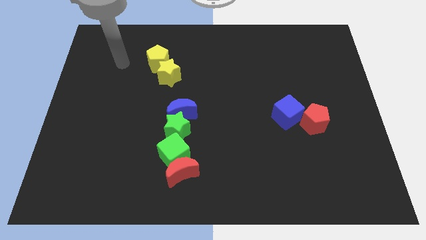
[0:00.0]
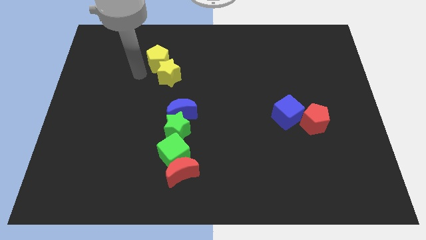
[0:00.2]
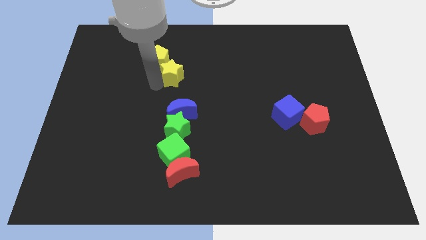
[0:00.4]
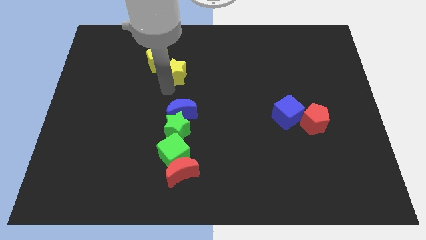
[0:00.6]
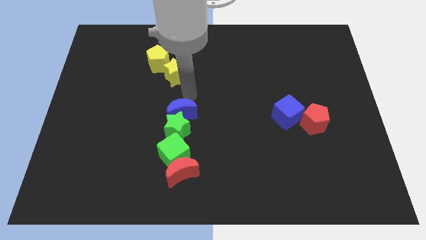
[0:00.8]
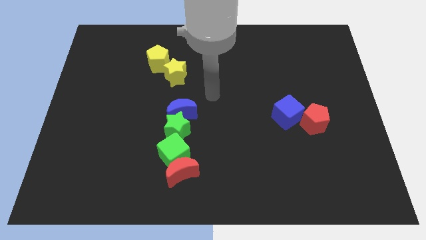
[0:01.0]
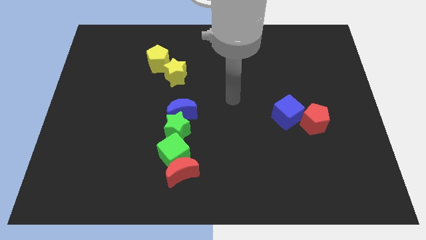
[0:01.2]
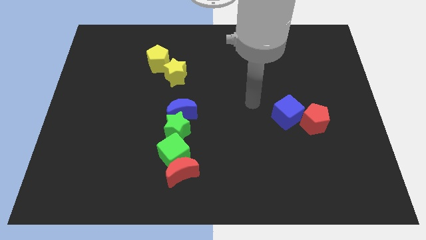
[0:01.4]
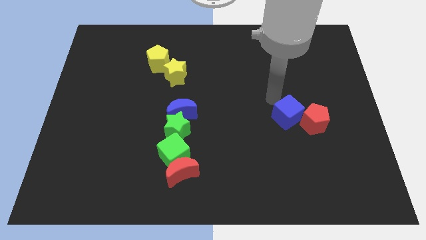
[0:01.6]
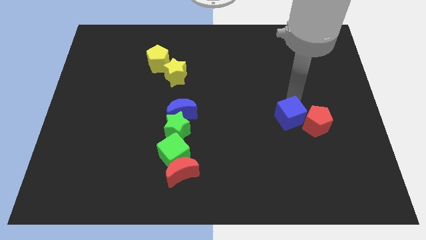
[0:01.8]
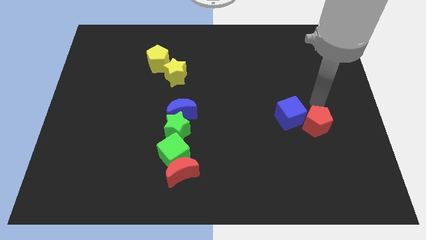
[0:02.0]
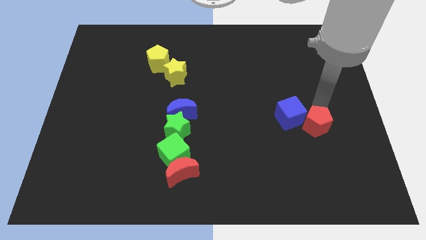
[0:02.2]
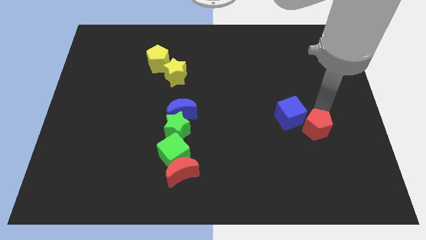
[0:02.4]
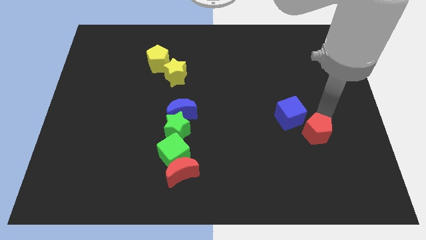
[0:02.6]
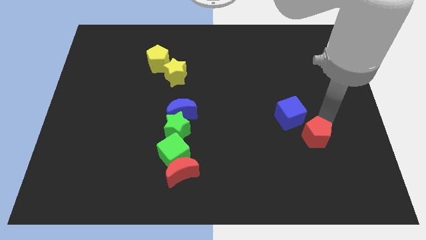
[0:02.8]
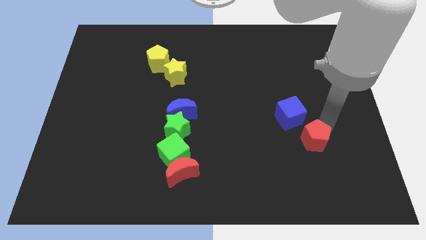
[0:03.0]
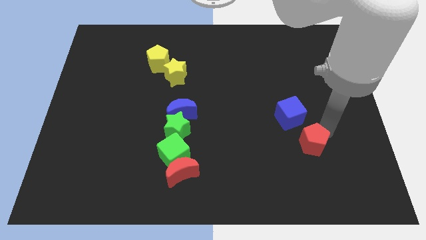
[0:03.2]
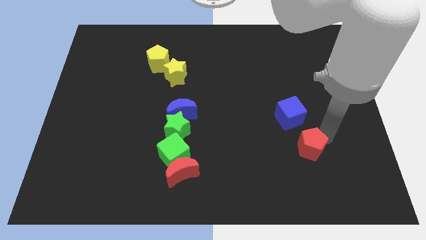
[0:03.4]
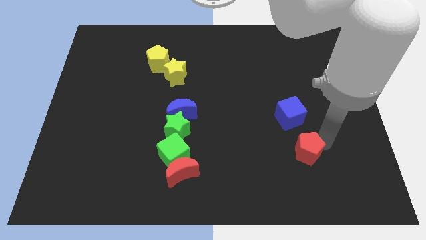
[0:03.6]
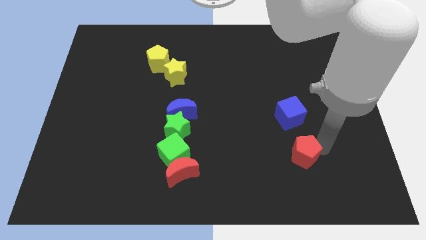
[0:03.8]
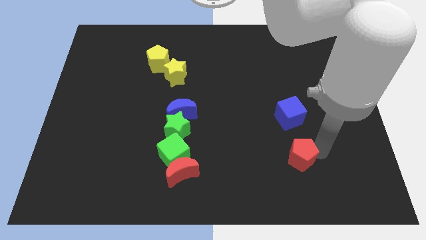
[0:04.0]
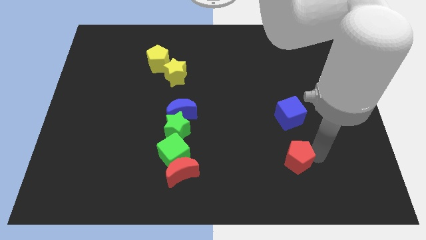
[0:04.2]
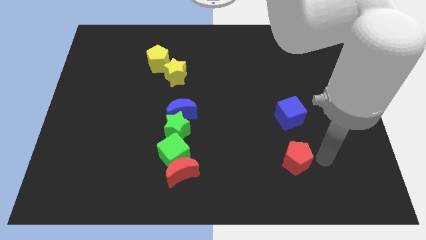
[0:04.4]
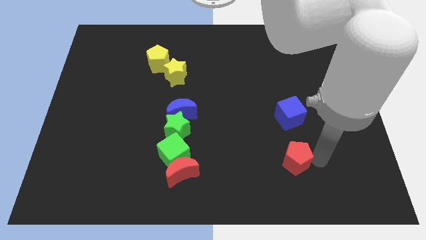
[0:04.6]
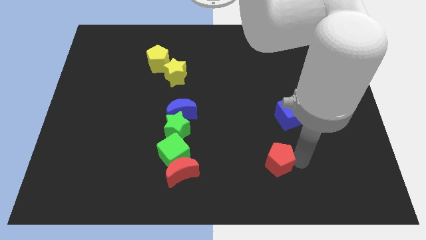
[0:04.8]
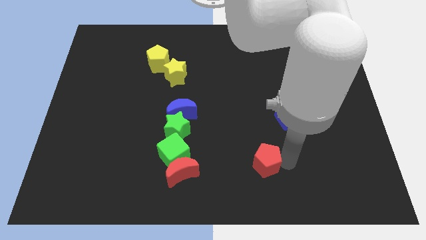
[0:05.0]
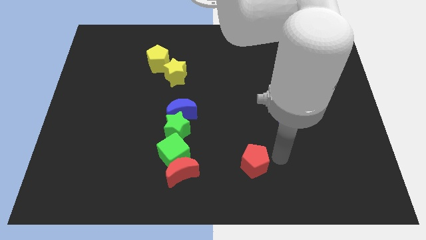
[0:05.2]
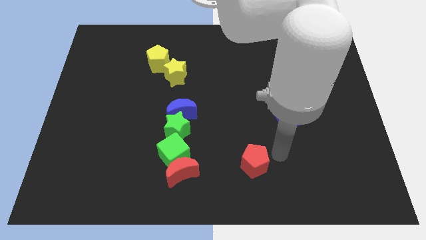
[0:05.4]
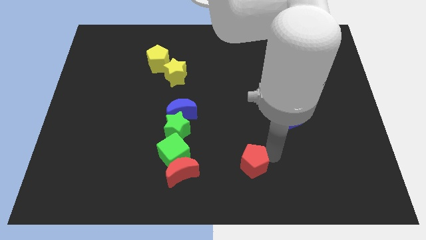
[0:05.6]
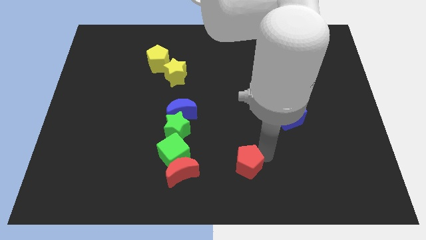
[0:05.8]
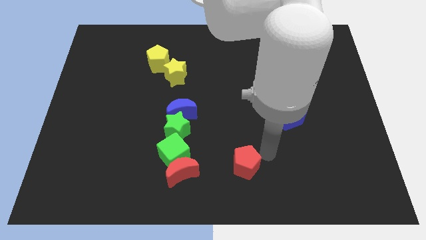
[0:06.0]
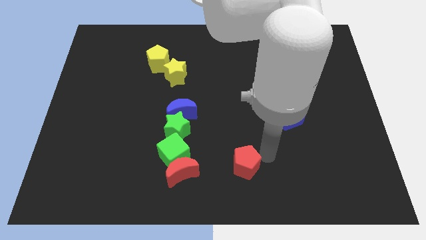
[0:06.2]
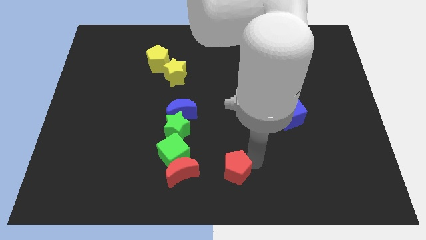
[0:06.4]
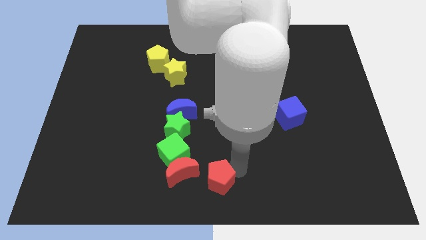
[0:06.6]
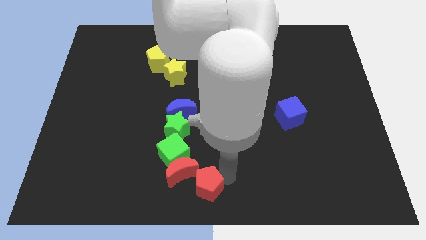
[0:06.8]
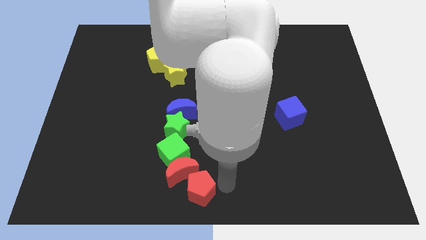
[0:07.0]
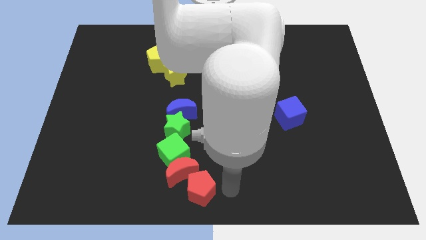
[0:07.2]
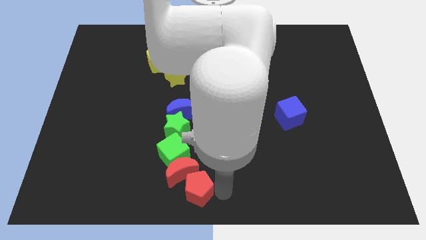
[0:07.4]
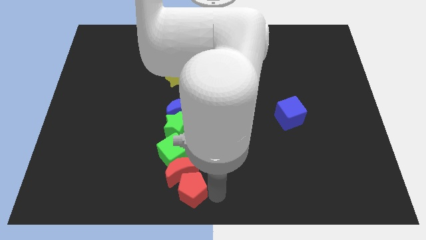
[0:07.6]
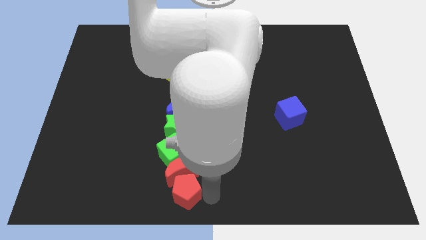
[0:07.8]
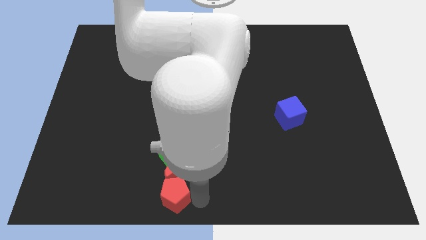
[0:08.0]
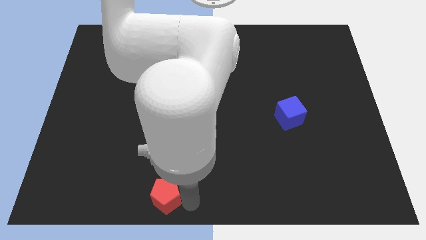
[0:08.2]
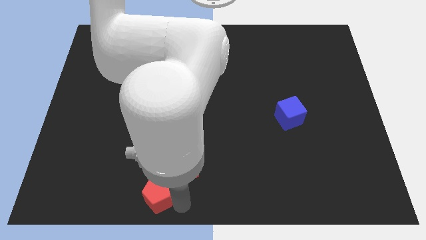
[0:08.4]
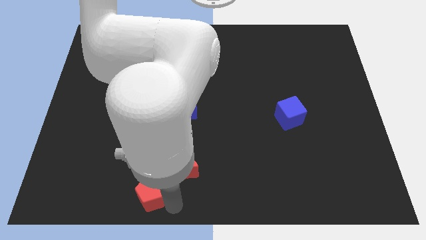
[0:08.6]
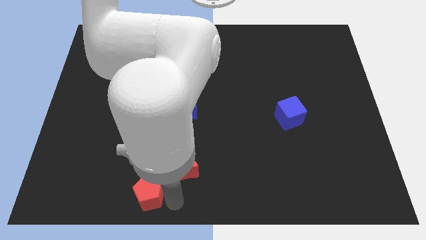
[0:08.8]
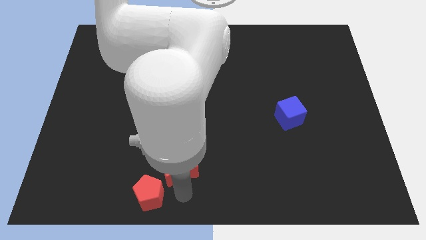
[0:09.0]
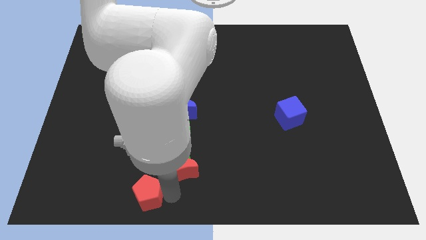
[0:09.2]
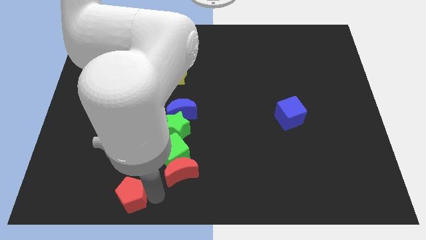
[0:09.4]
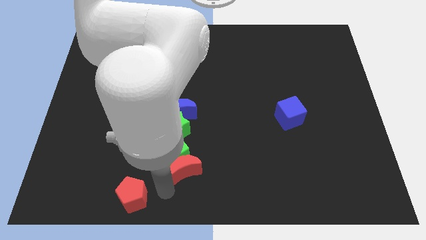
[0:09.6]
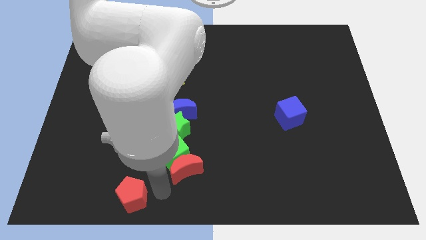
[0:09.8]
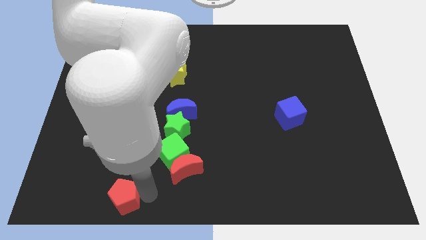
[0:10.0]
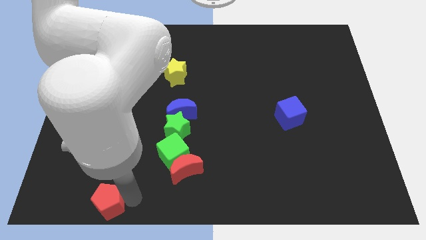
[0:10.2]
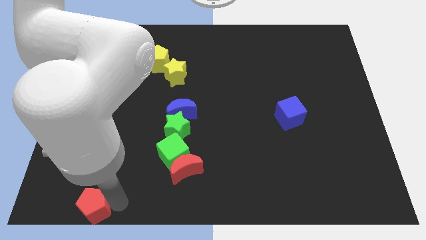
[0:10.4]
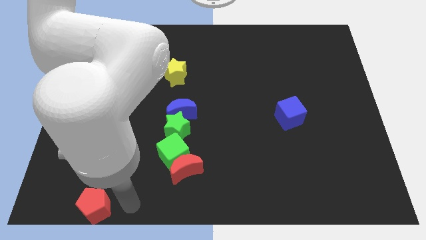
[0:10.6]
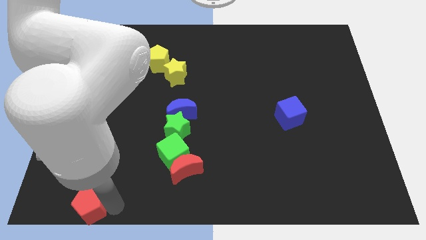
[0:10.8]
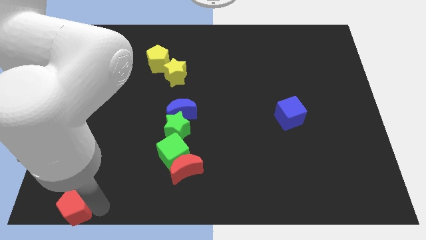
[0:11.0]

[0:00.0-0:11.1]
push the red pentagon to the lower left corner

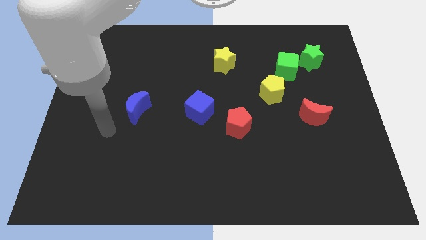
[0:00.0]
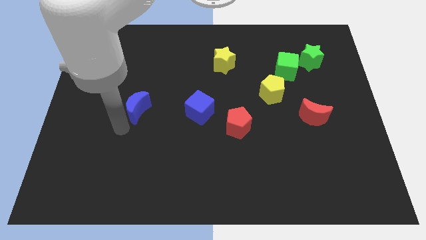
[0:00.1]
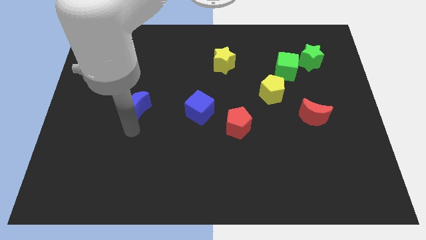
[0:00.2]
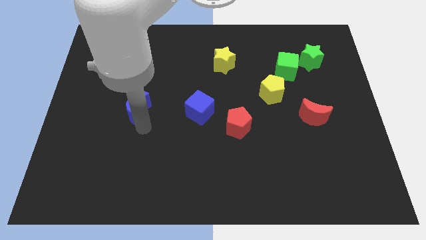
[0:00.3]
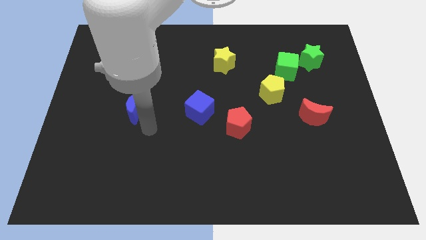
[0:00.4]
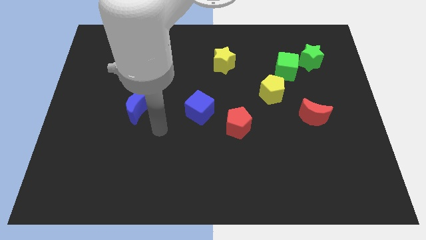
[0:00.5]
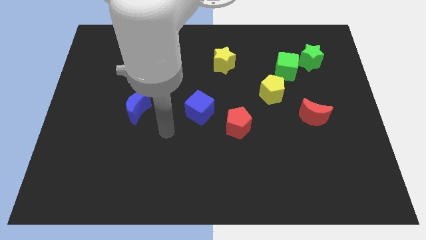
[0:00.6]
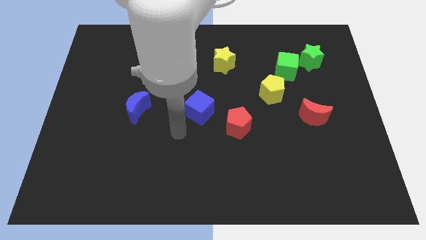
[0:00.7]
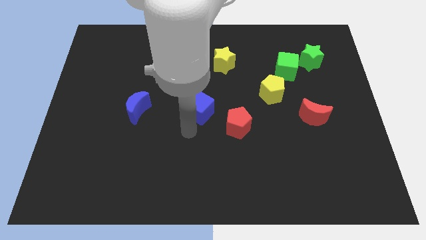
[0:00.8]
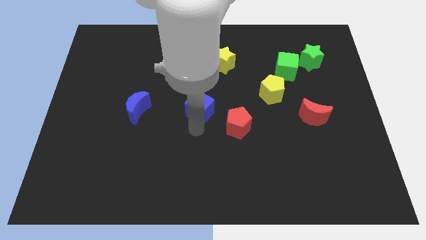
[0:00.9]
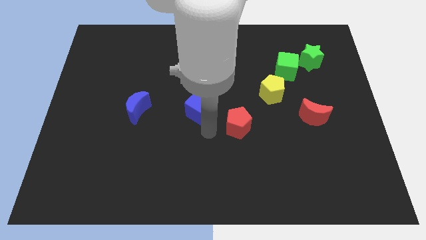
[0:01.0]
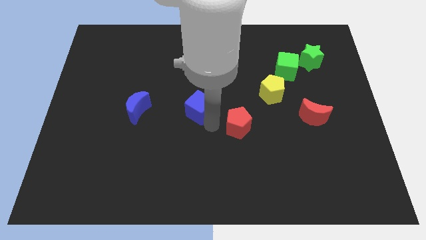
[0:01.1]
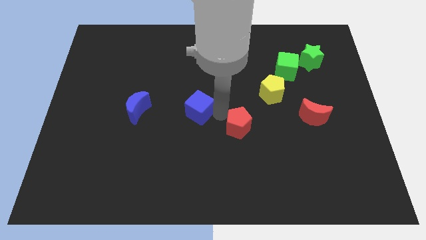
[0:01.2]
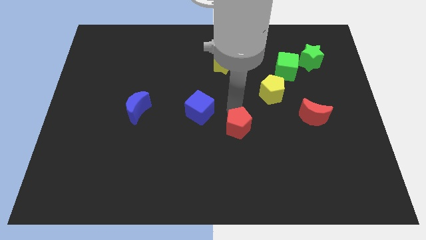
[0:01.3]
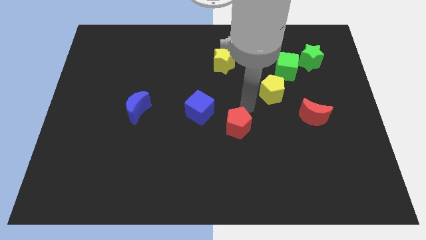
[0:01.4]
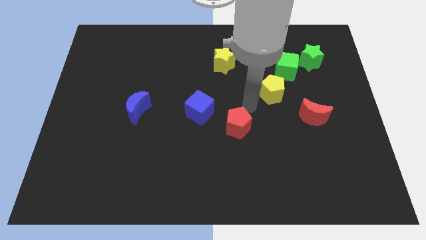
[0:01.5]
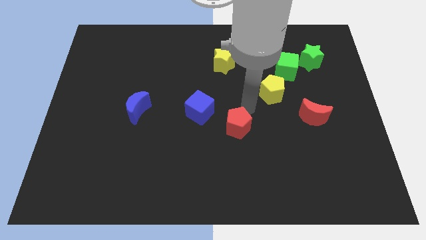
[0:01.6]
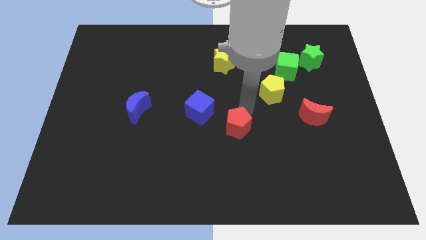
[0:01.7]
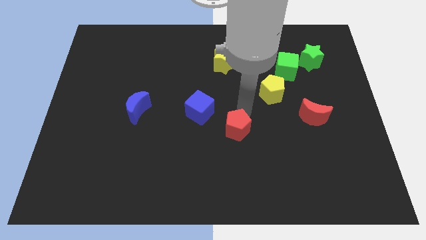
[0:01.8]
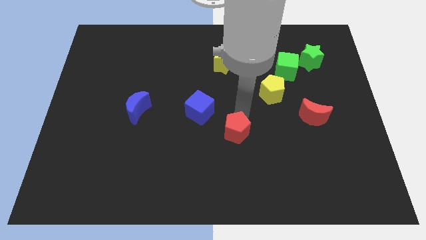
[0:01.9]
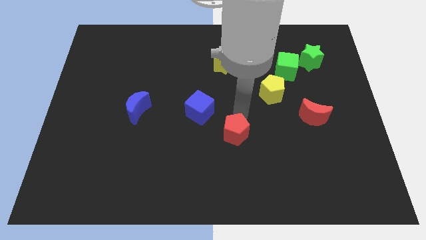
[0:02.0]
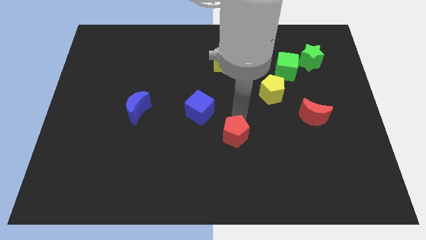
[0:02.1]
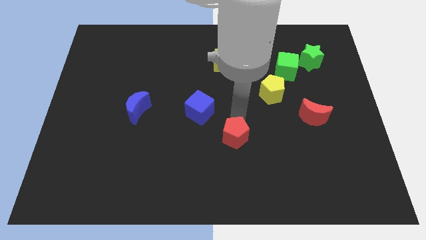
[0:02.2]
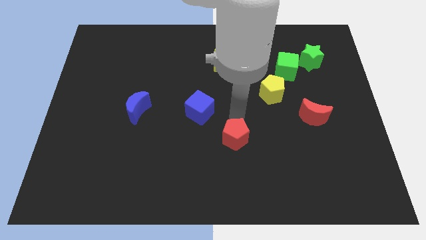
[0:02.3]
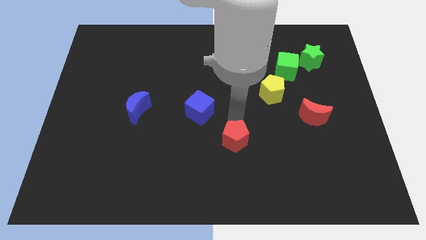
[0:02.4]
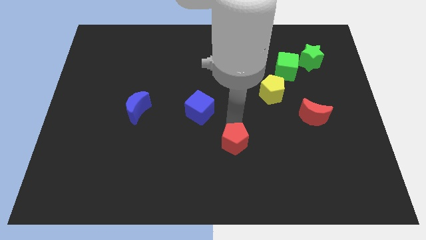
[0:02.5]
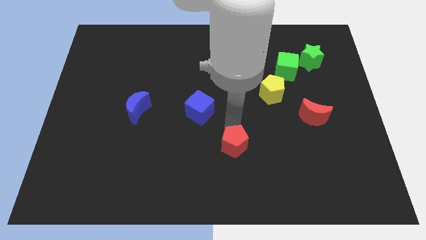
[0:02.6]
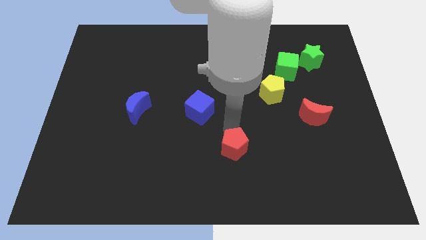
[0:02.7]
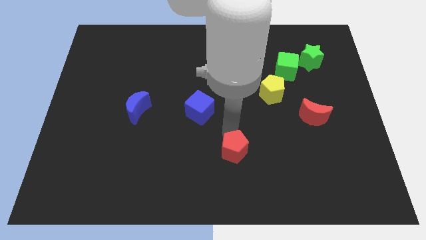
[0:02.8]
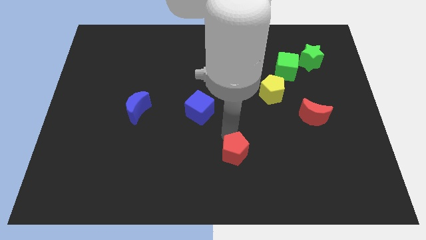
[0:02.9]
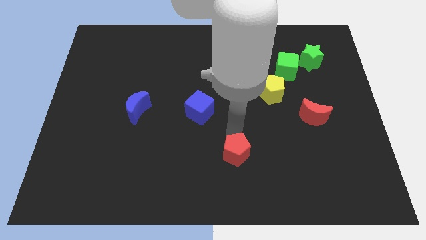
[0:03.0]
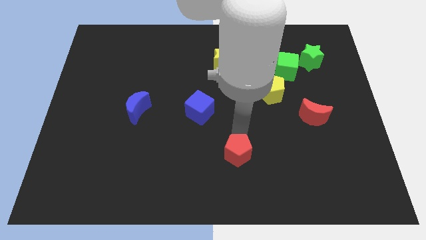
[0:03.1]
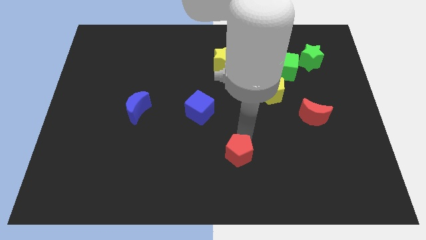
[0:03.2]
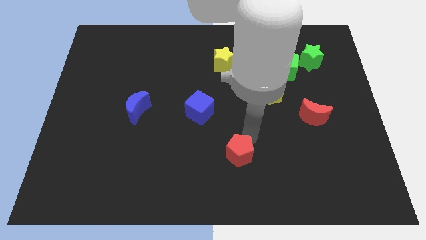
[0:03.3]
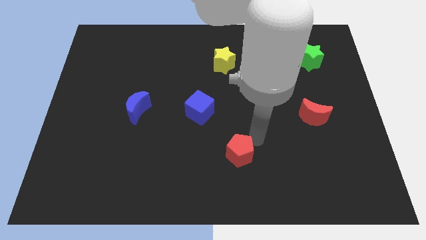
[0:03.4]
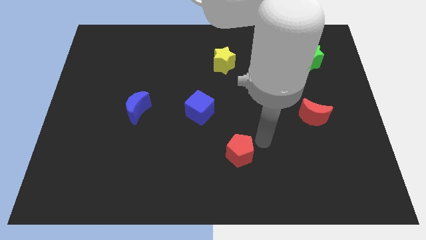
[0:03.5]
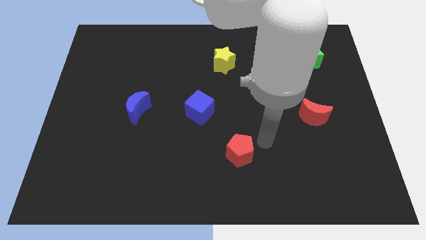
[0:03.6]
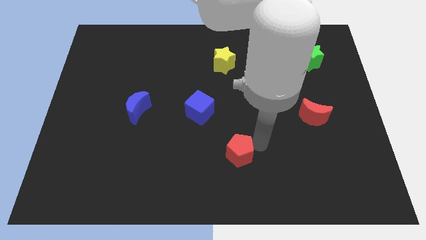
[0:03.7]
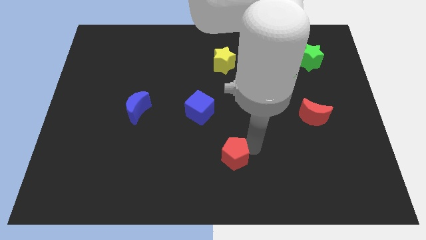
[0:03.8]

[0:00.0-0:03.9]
push the red pentagon to the bottom
